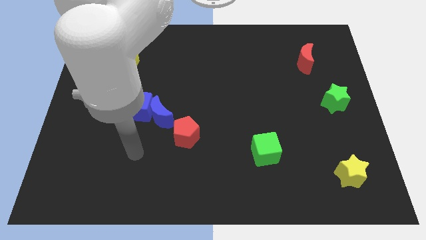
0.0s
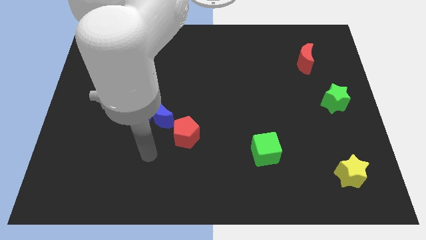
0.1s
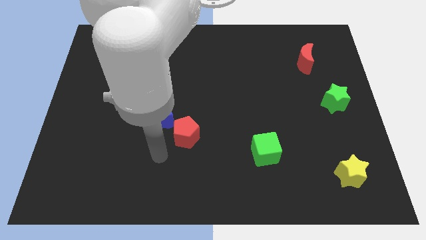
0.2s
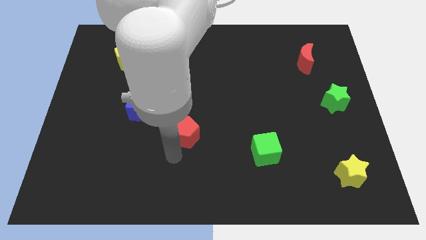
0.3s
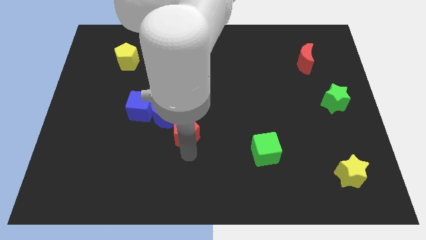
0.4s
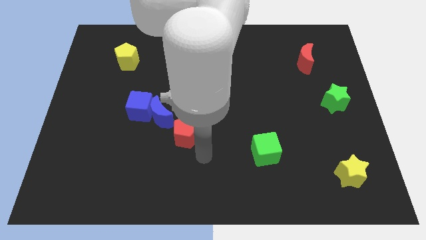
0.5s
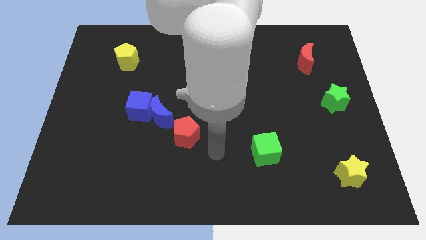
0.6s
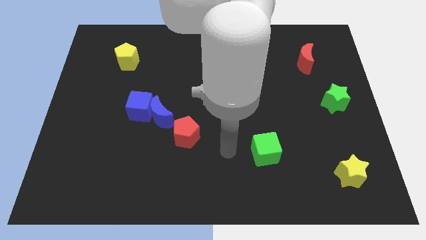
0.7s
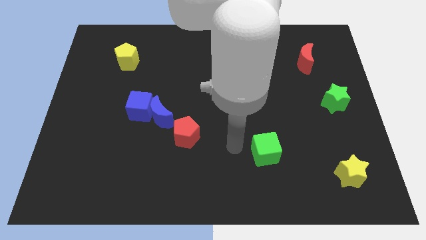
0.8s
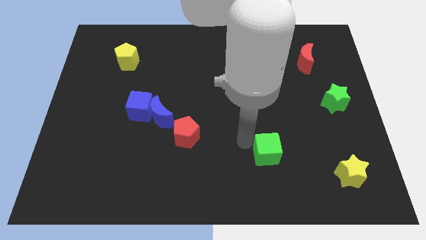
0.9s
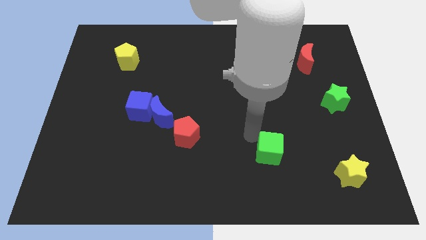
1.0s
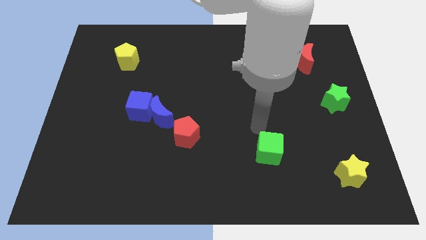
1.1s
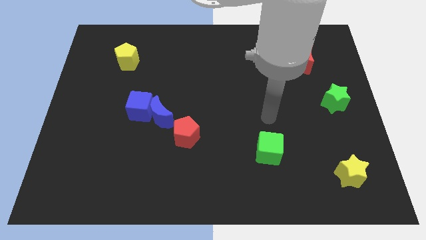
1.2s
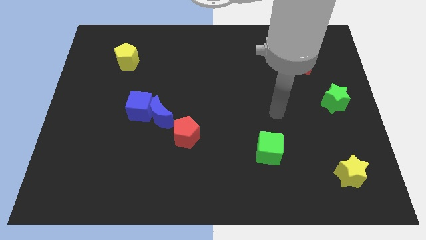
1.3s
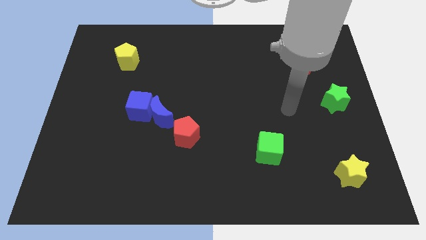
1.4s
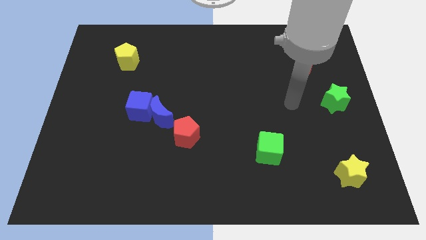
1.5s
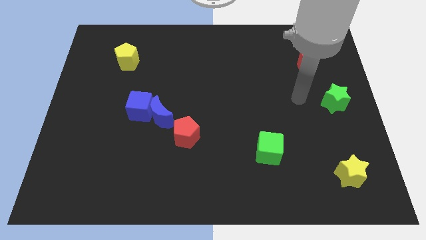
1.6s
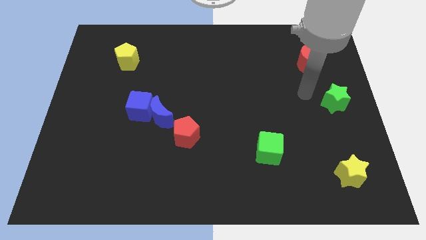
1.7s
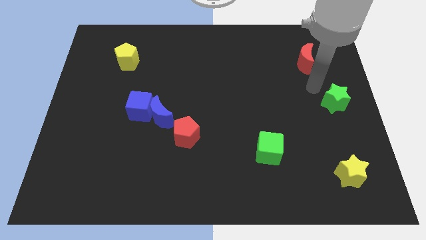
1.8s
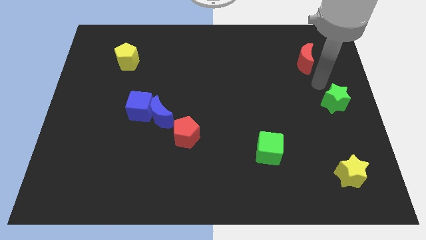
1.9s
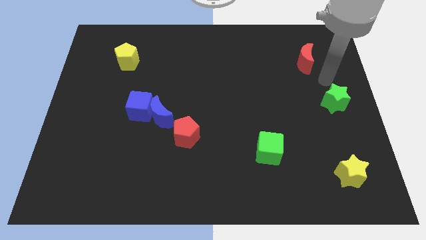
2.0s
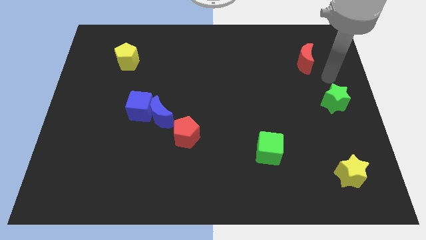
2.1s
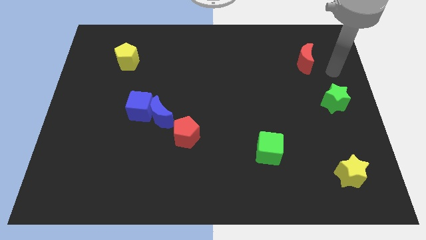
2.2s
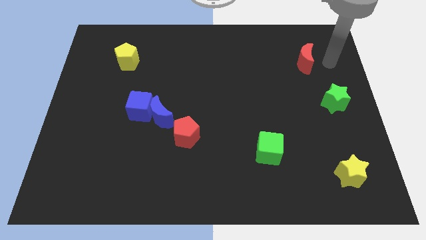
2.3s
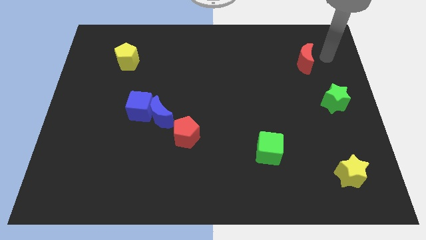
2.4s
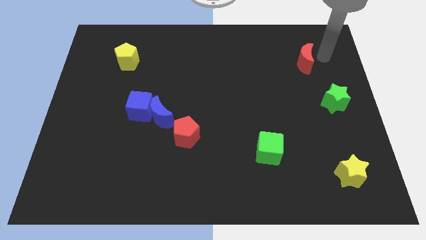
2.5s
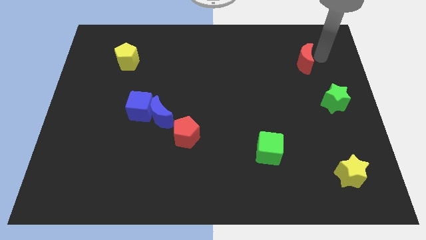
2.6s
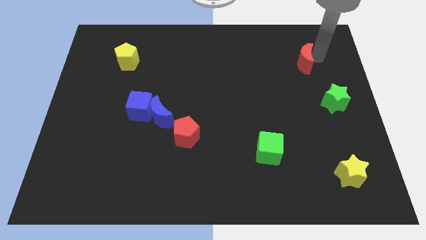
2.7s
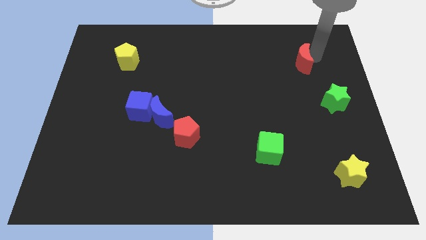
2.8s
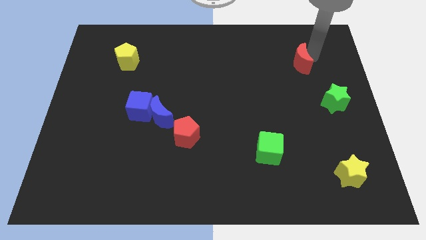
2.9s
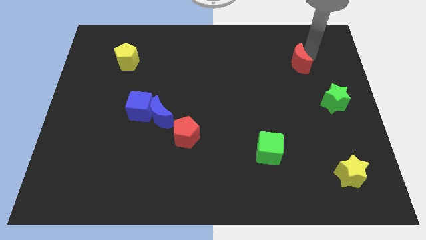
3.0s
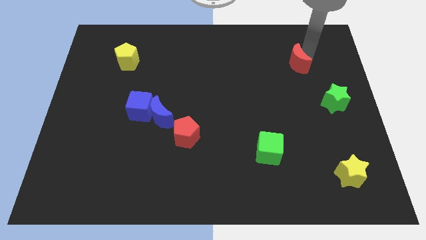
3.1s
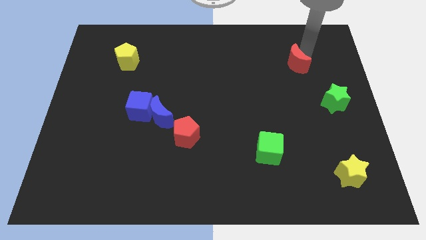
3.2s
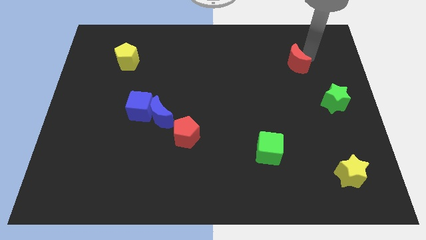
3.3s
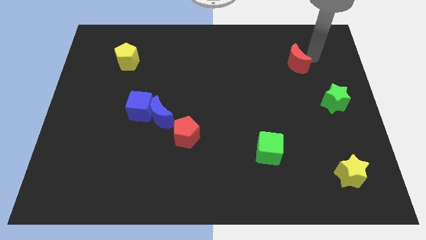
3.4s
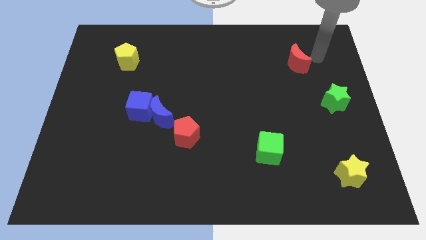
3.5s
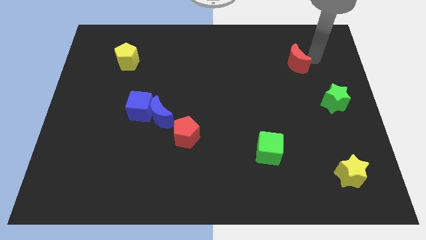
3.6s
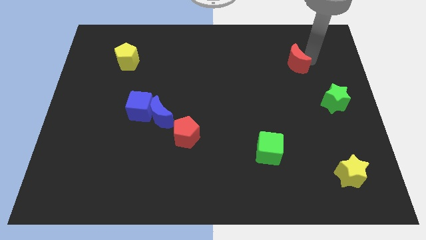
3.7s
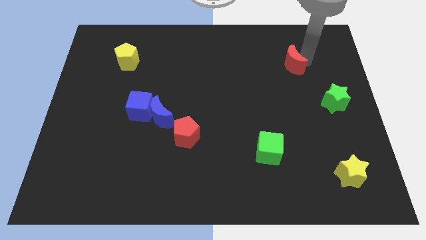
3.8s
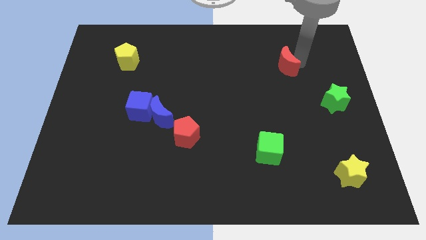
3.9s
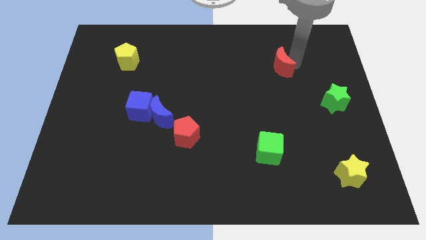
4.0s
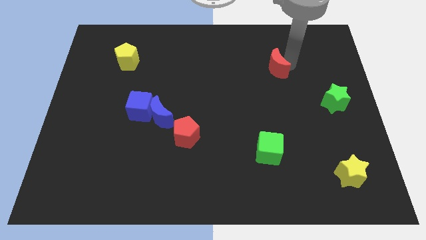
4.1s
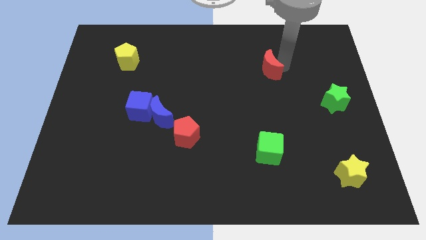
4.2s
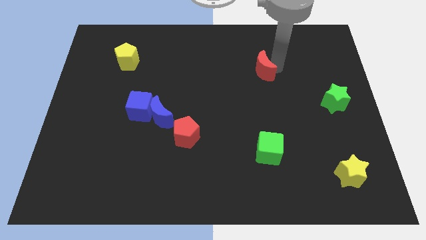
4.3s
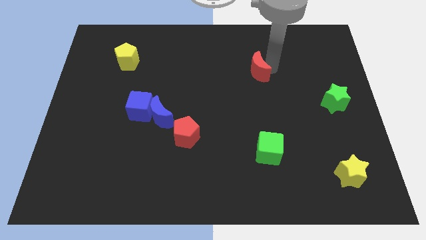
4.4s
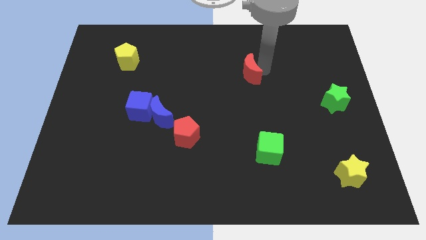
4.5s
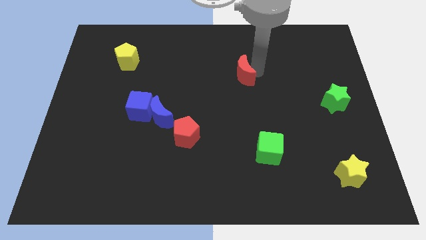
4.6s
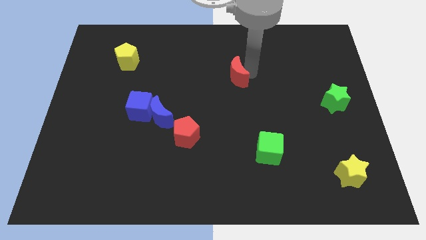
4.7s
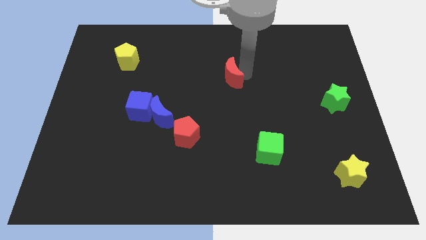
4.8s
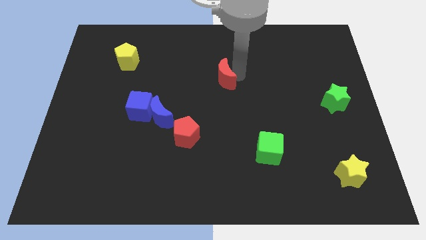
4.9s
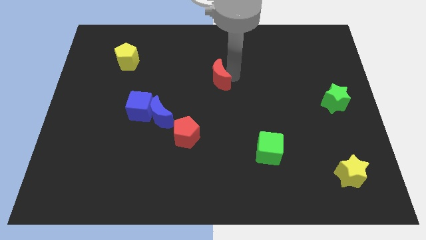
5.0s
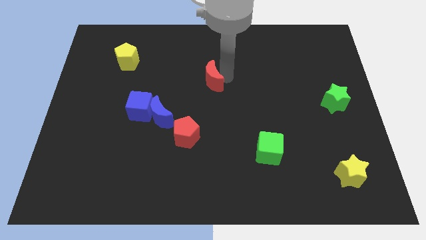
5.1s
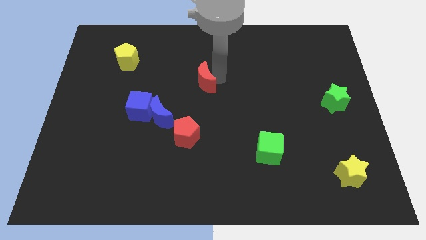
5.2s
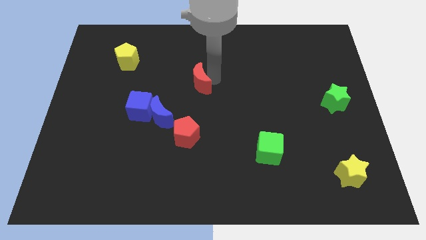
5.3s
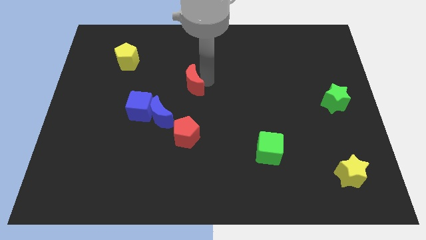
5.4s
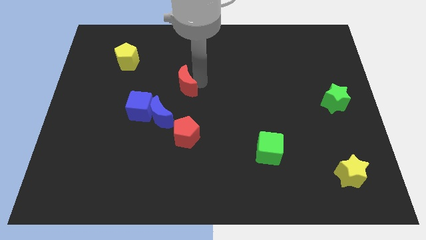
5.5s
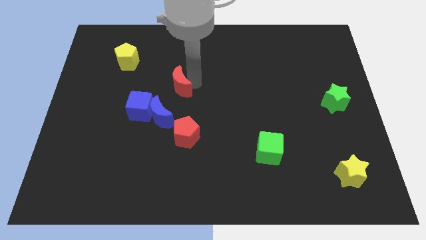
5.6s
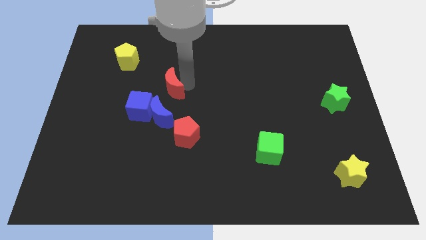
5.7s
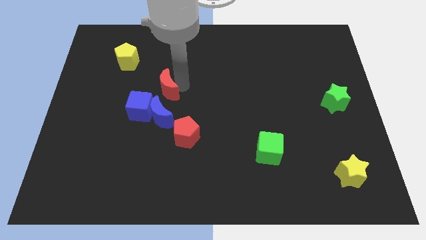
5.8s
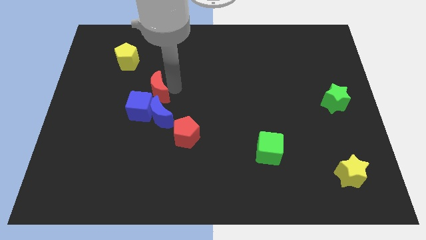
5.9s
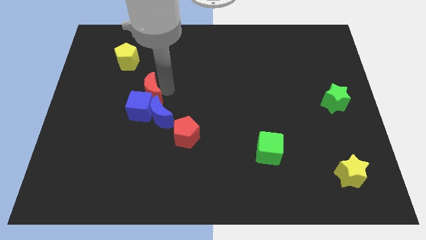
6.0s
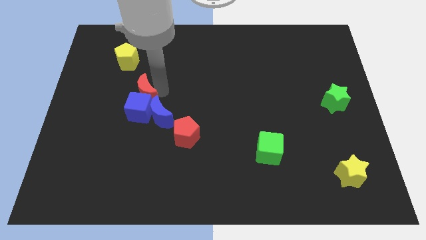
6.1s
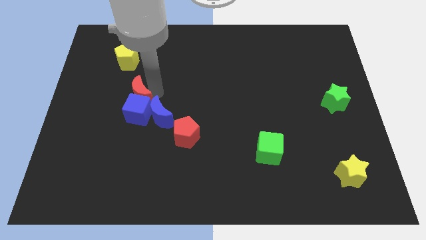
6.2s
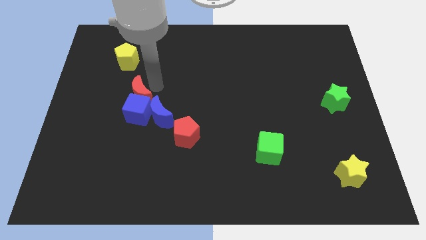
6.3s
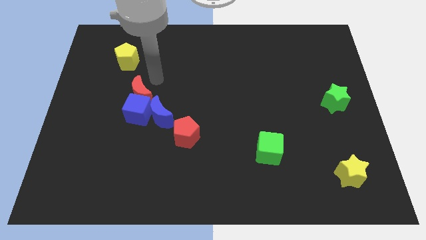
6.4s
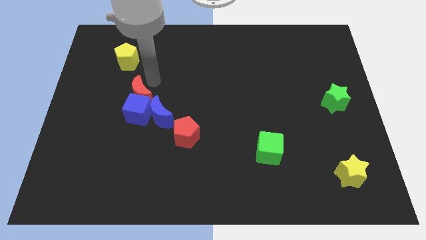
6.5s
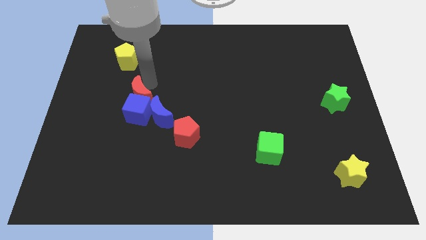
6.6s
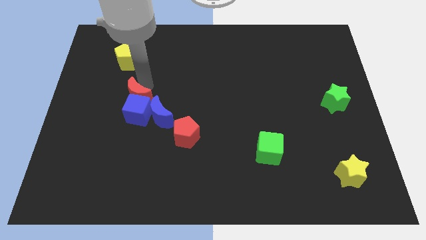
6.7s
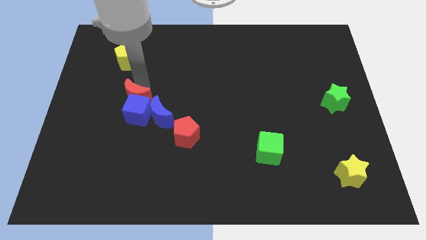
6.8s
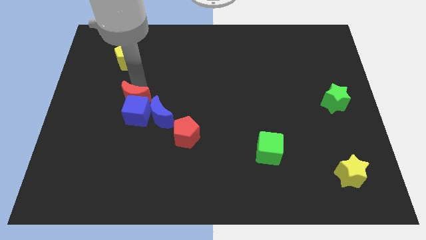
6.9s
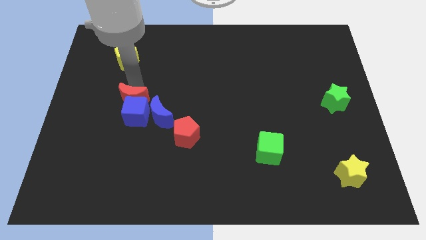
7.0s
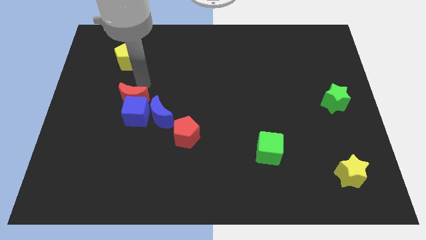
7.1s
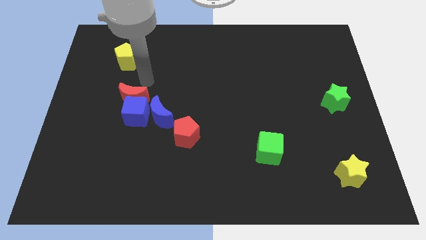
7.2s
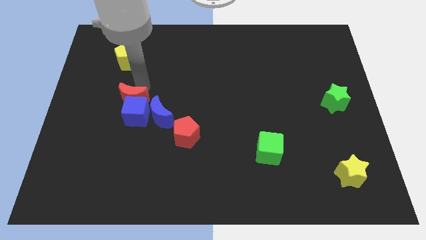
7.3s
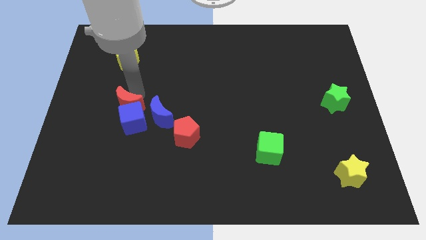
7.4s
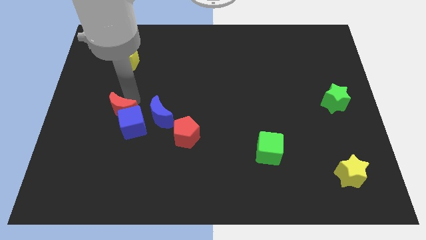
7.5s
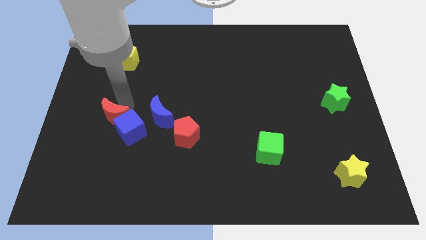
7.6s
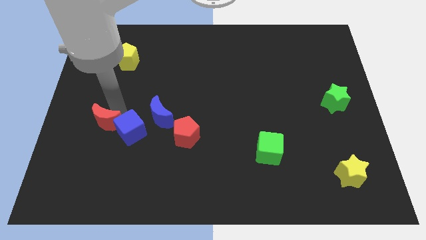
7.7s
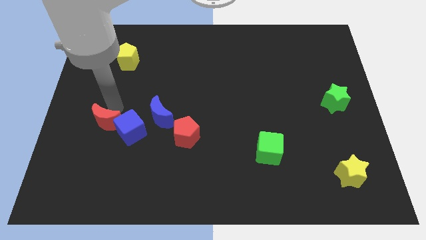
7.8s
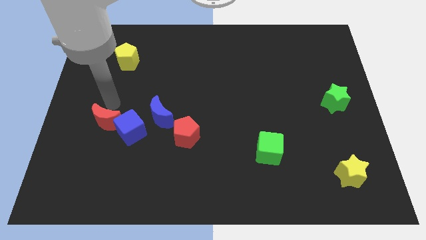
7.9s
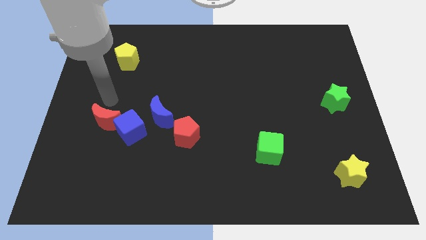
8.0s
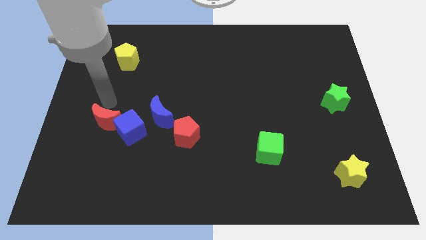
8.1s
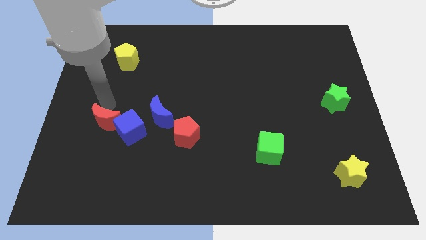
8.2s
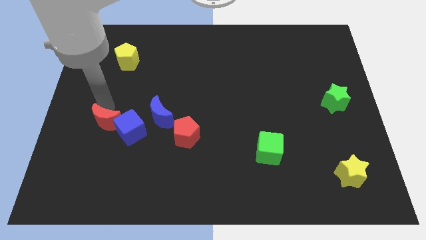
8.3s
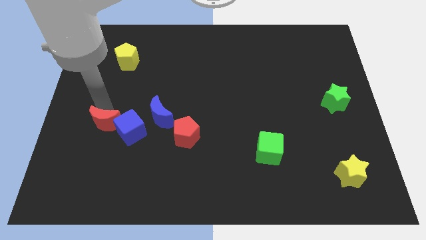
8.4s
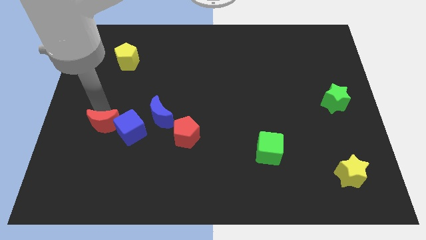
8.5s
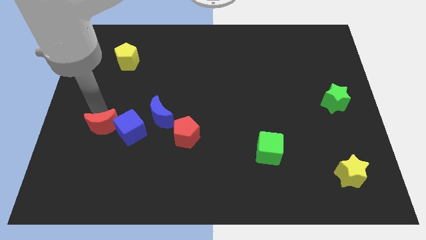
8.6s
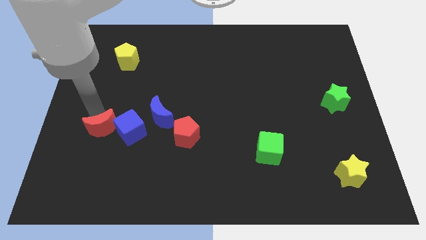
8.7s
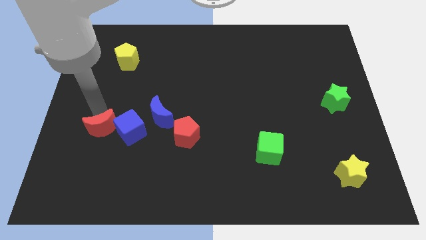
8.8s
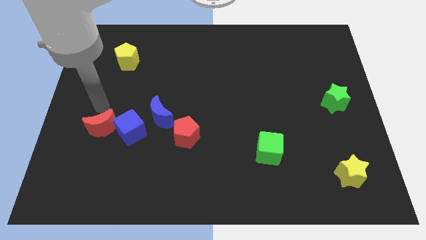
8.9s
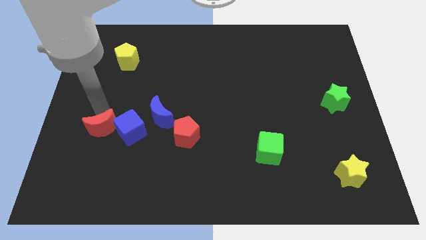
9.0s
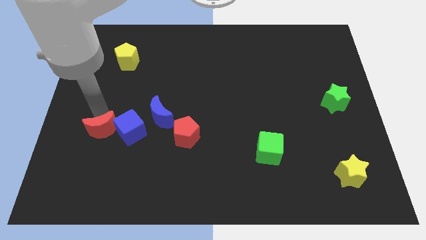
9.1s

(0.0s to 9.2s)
move the red moon diagonally down and to the left of the blue cube
